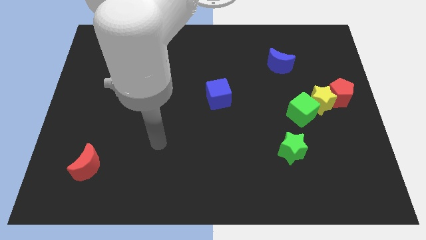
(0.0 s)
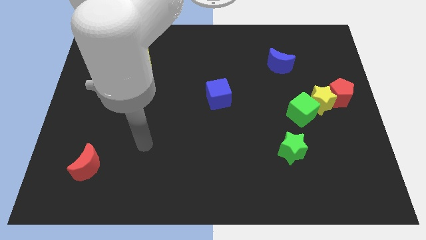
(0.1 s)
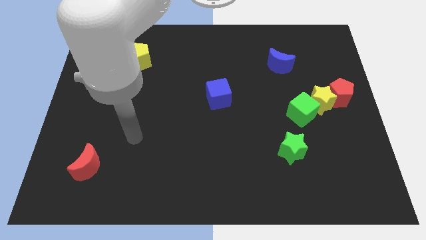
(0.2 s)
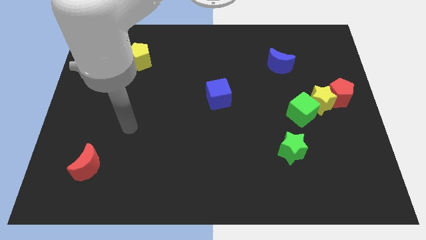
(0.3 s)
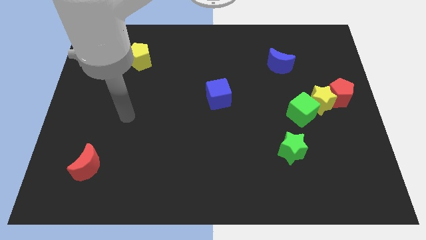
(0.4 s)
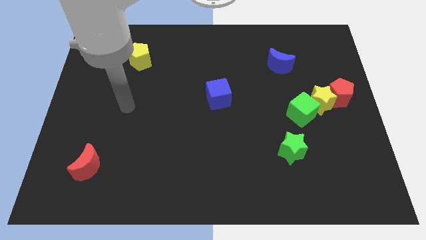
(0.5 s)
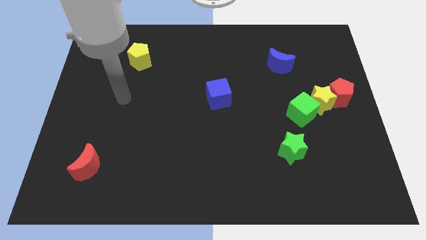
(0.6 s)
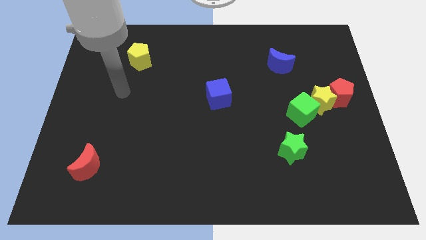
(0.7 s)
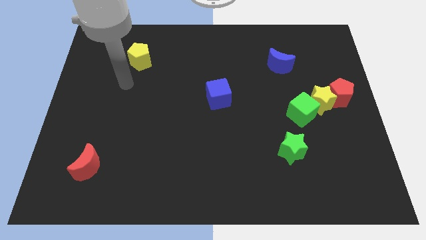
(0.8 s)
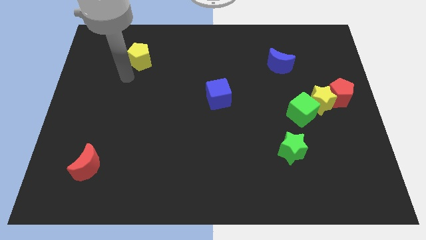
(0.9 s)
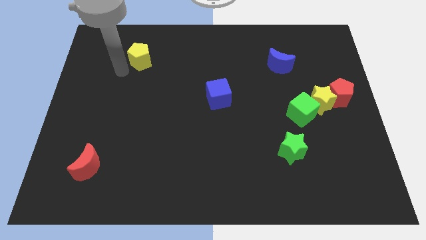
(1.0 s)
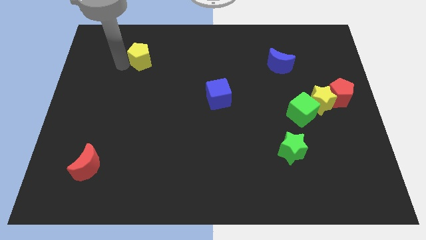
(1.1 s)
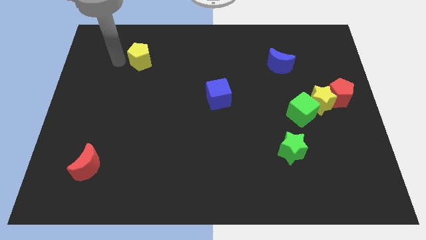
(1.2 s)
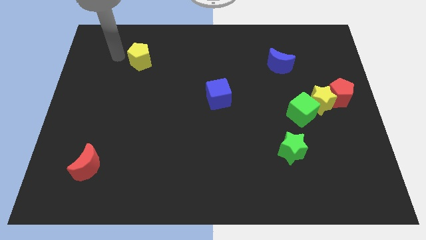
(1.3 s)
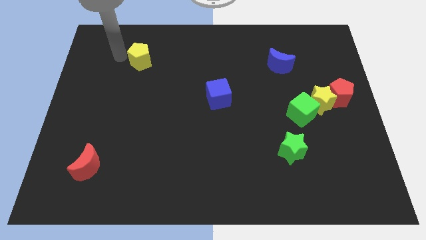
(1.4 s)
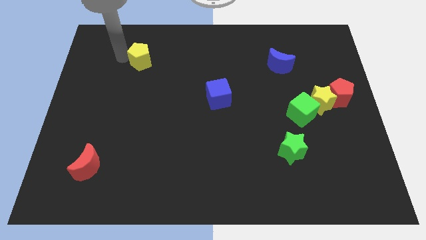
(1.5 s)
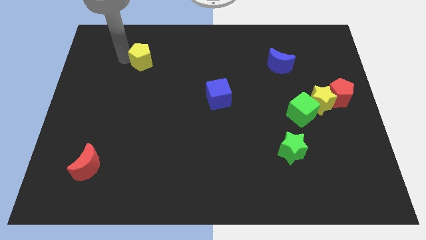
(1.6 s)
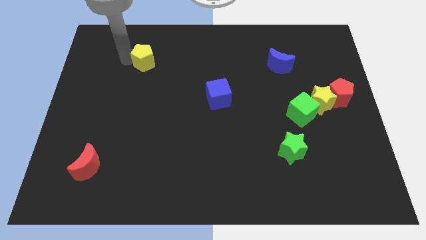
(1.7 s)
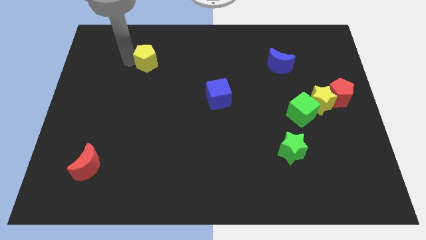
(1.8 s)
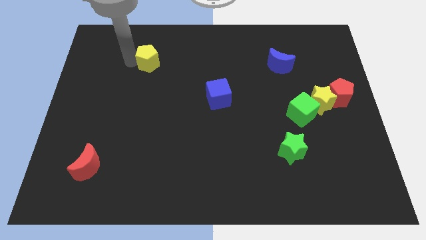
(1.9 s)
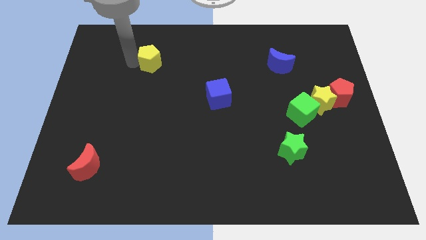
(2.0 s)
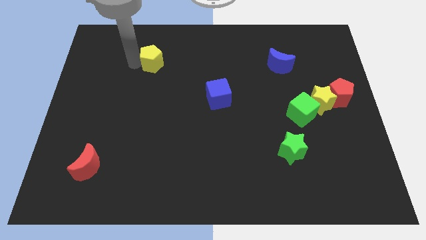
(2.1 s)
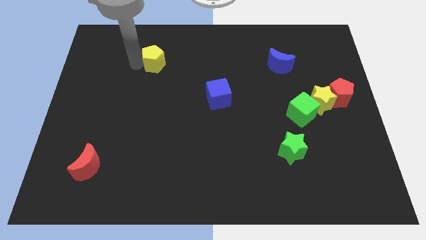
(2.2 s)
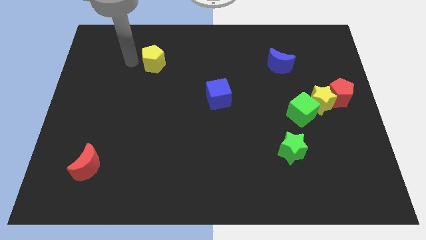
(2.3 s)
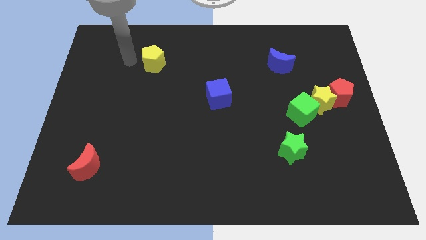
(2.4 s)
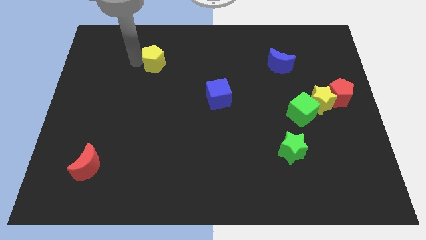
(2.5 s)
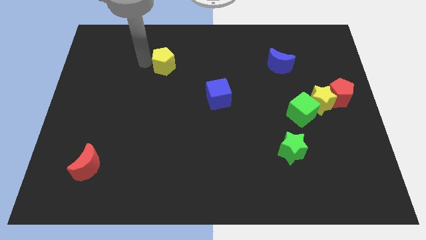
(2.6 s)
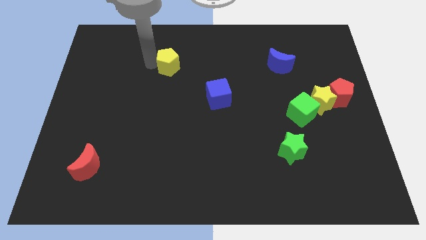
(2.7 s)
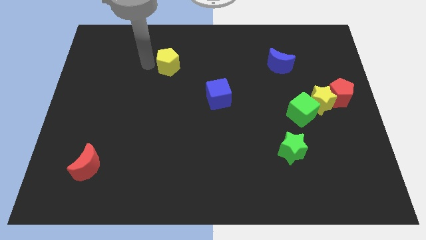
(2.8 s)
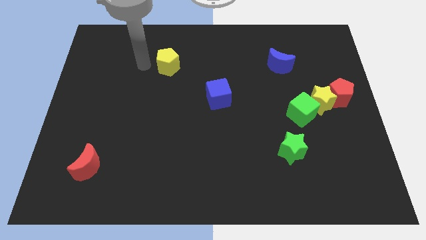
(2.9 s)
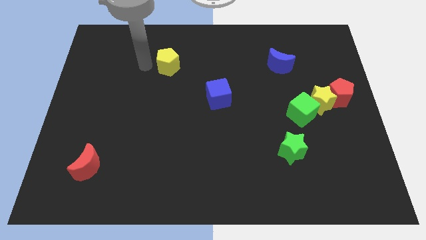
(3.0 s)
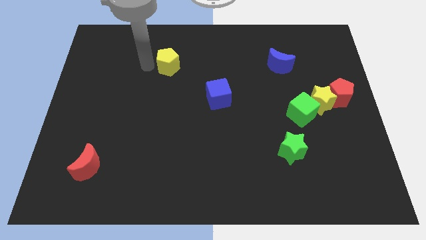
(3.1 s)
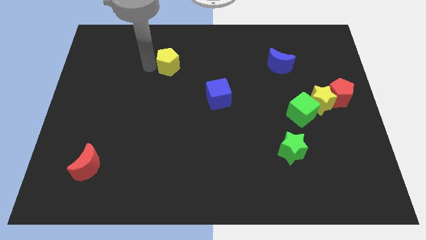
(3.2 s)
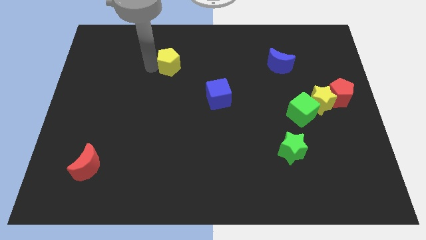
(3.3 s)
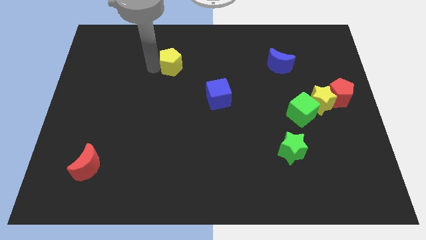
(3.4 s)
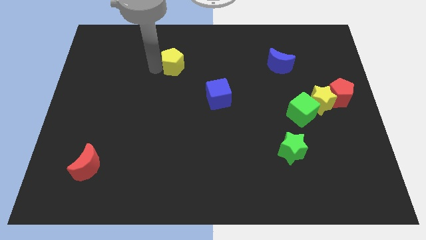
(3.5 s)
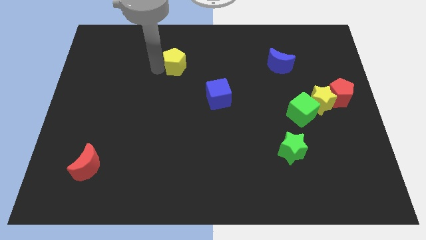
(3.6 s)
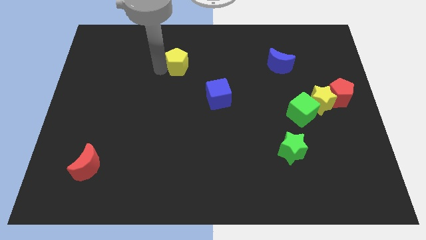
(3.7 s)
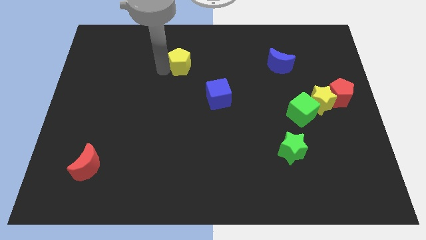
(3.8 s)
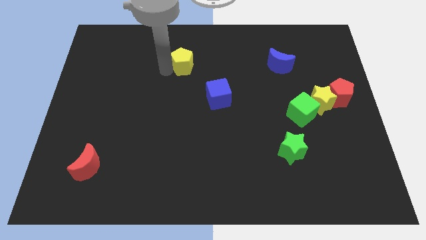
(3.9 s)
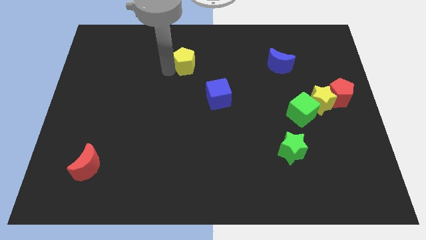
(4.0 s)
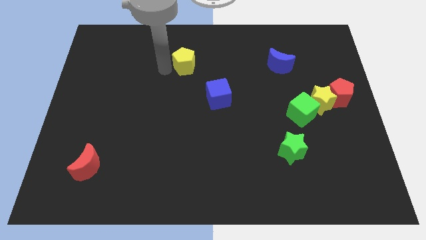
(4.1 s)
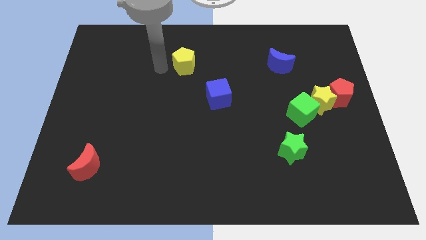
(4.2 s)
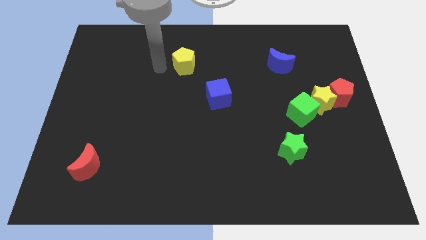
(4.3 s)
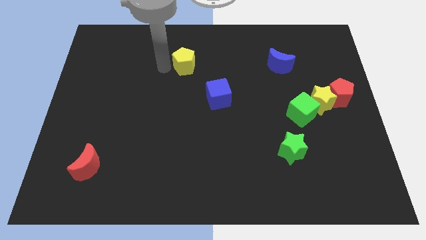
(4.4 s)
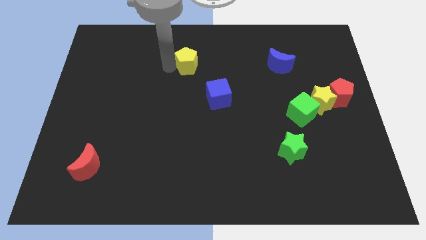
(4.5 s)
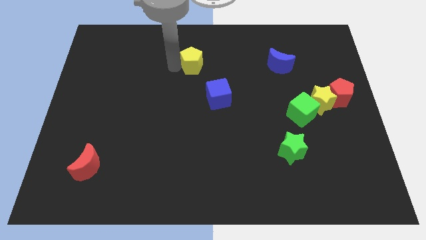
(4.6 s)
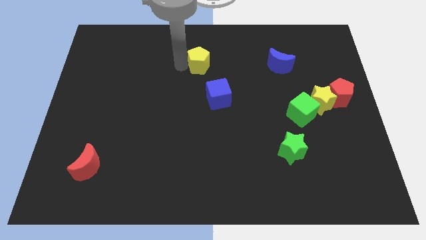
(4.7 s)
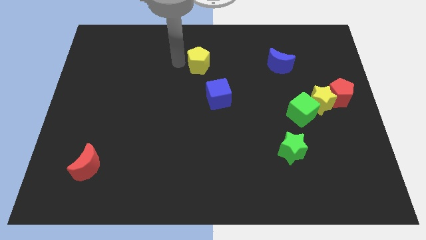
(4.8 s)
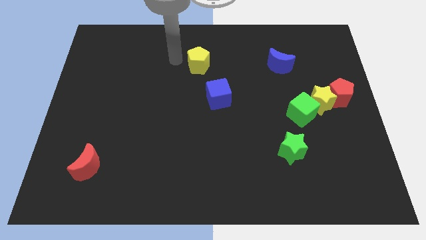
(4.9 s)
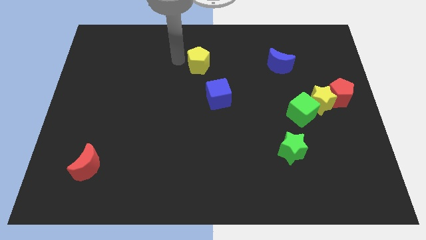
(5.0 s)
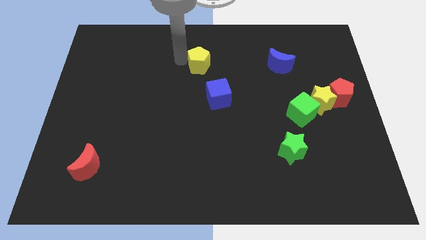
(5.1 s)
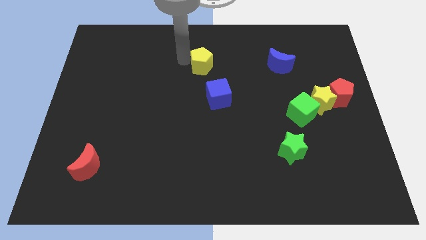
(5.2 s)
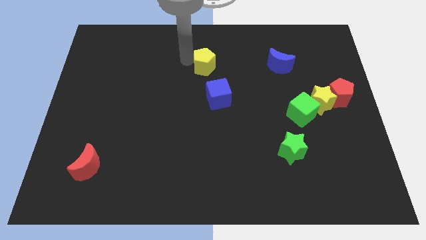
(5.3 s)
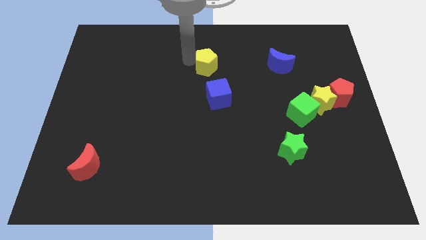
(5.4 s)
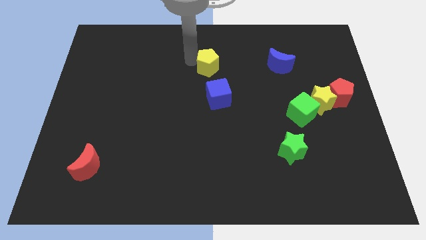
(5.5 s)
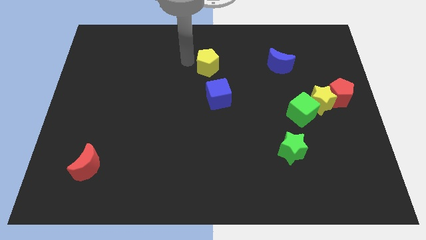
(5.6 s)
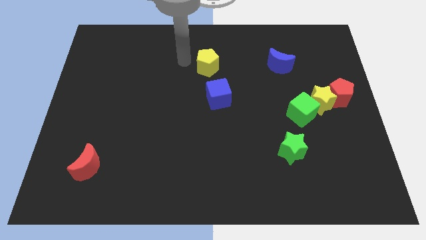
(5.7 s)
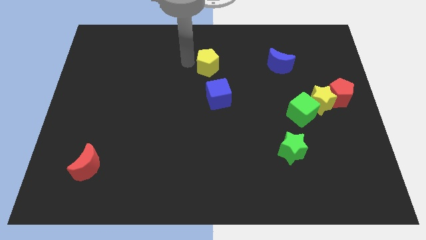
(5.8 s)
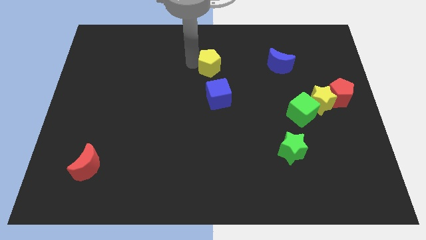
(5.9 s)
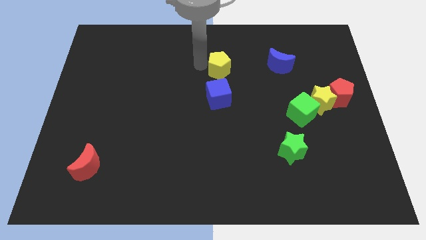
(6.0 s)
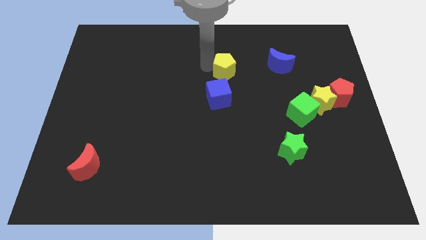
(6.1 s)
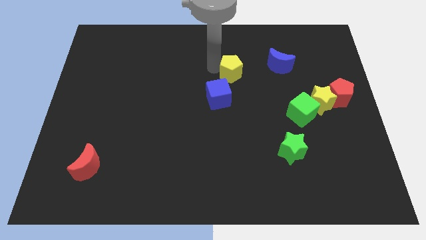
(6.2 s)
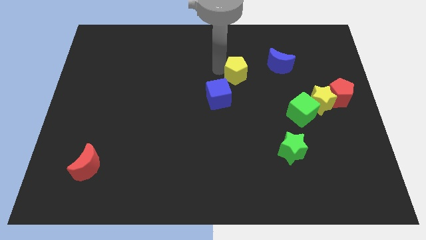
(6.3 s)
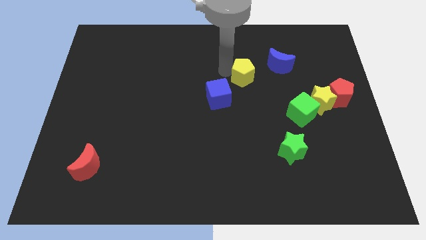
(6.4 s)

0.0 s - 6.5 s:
put the yellow pentagon diagonally down and to the left of the blue moon
